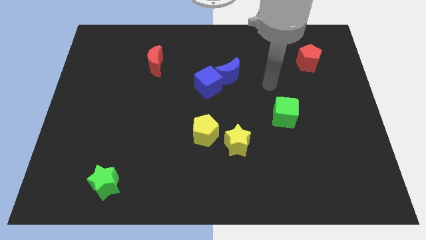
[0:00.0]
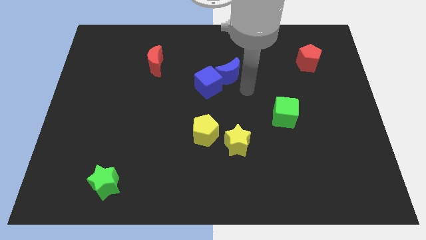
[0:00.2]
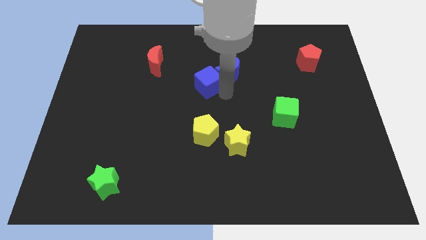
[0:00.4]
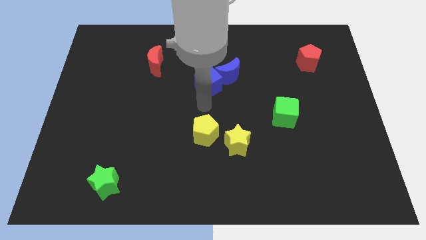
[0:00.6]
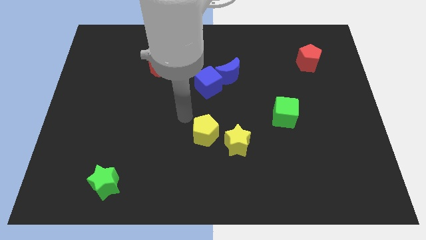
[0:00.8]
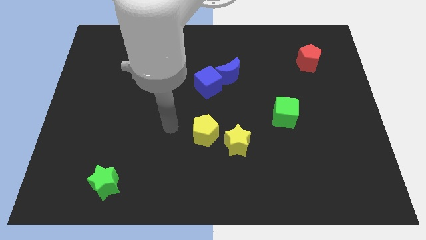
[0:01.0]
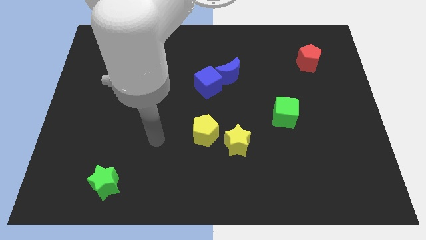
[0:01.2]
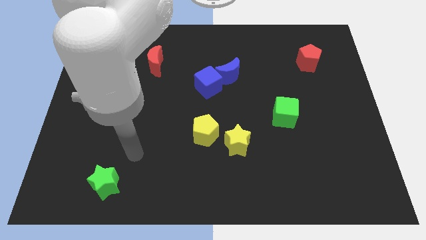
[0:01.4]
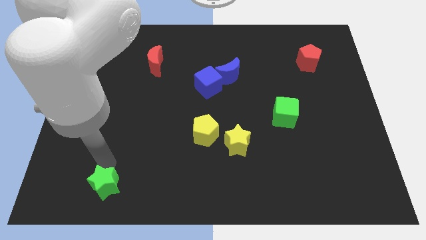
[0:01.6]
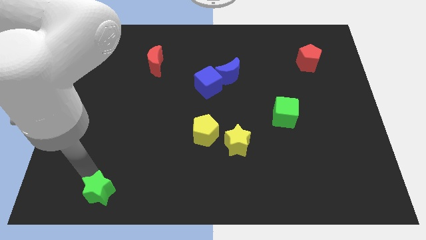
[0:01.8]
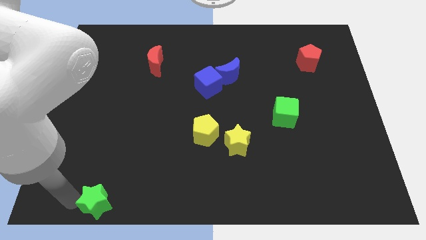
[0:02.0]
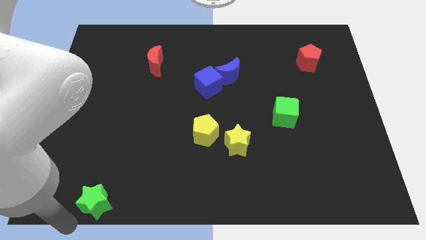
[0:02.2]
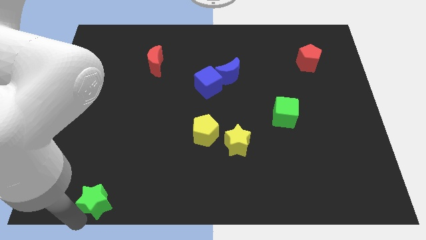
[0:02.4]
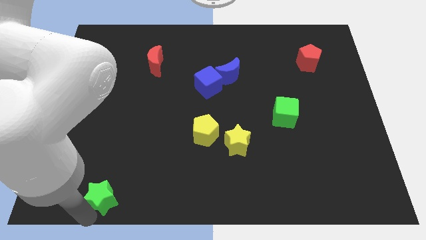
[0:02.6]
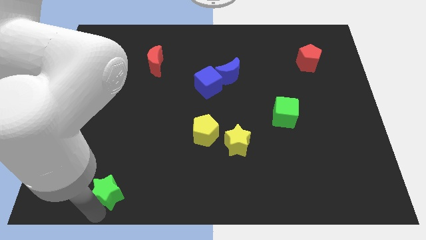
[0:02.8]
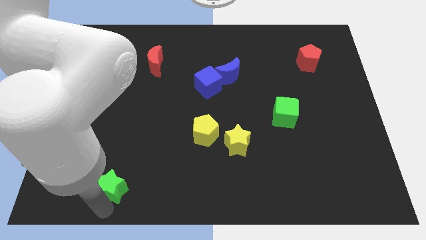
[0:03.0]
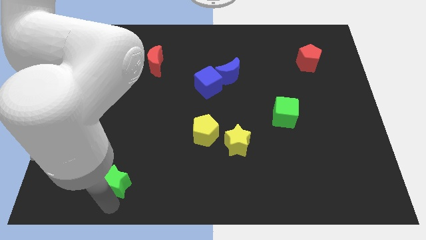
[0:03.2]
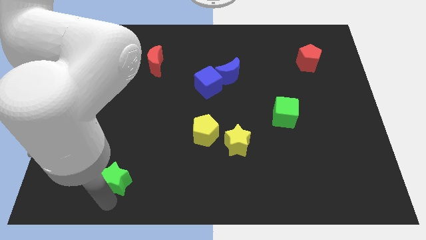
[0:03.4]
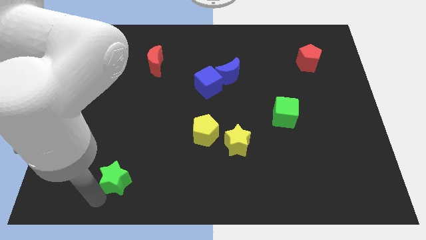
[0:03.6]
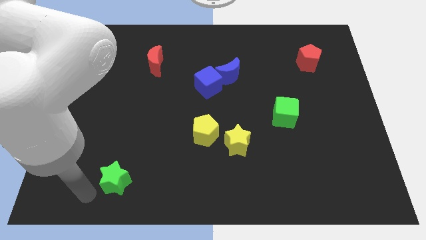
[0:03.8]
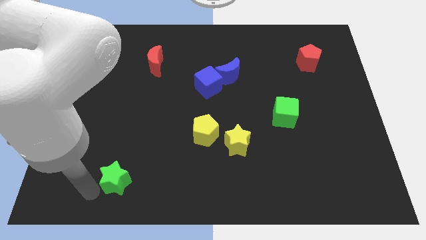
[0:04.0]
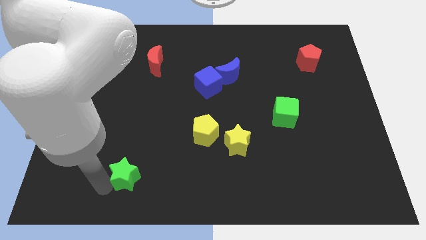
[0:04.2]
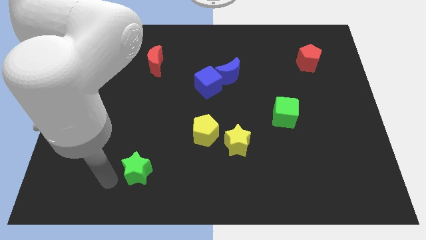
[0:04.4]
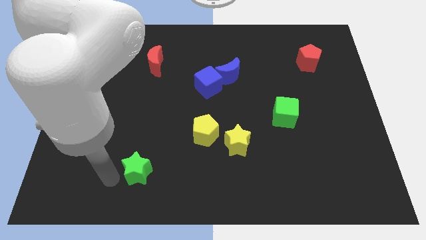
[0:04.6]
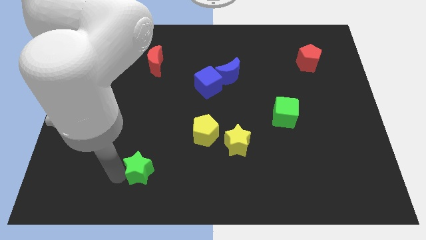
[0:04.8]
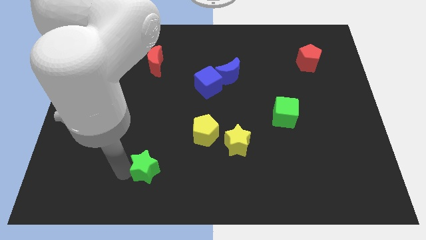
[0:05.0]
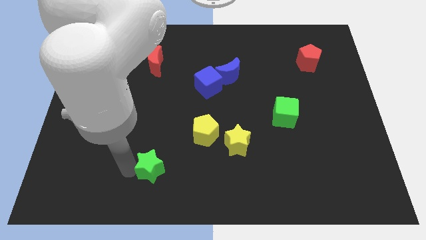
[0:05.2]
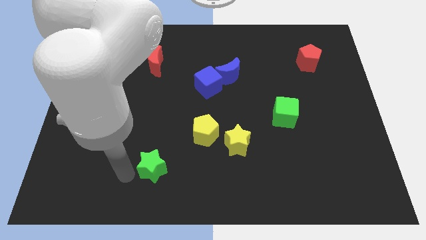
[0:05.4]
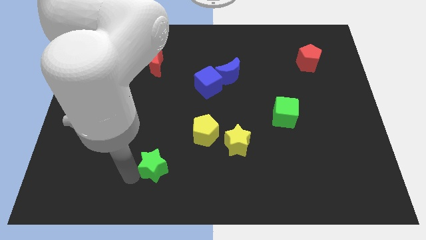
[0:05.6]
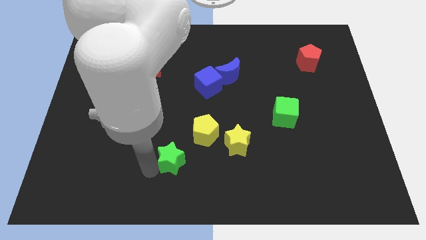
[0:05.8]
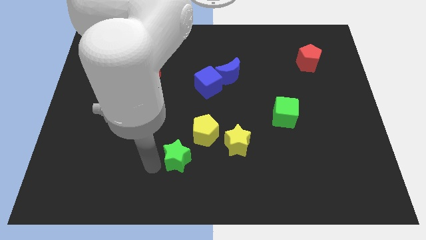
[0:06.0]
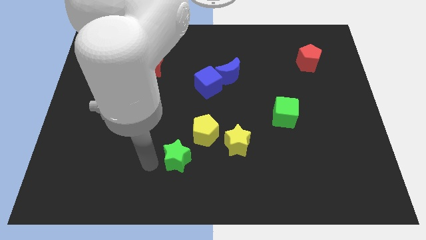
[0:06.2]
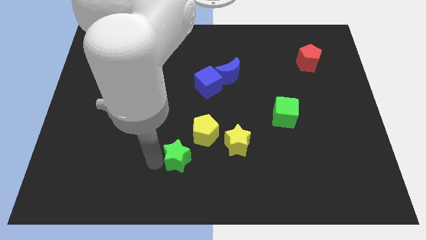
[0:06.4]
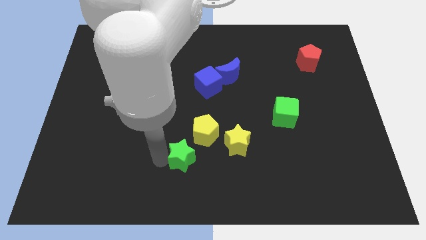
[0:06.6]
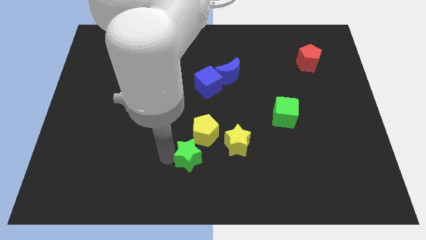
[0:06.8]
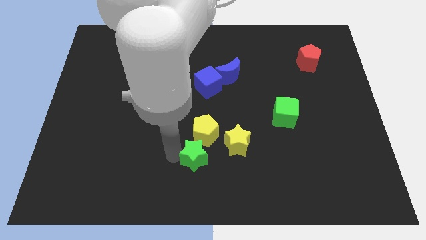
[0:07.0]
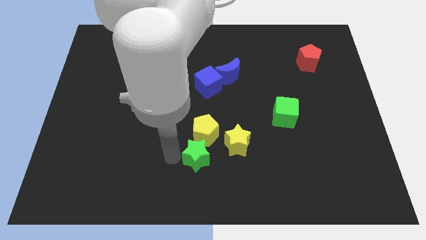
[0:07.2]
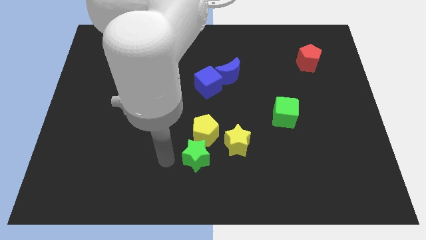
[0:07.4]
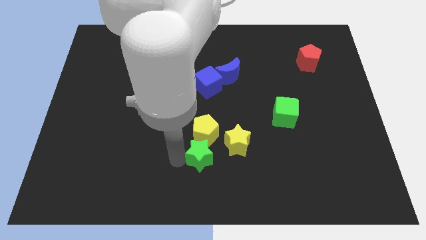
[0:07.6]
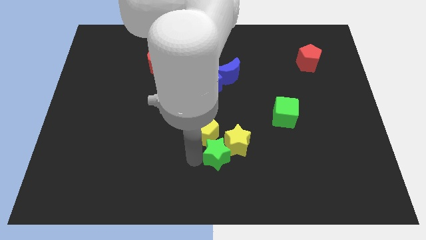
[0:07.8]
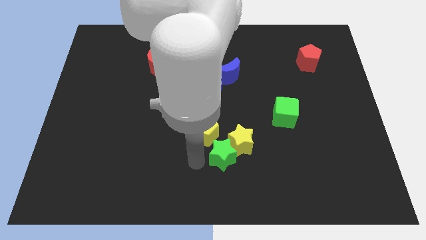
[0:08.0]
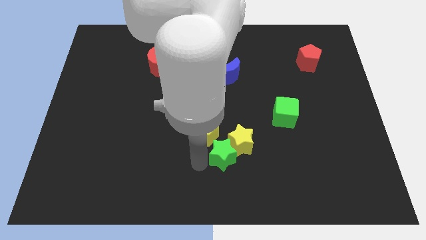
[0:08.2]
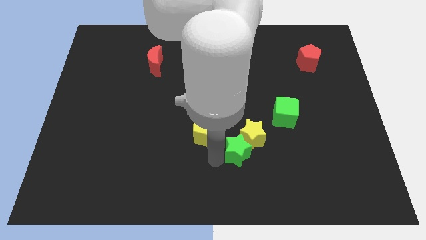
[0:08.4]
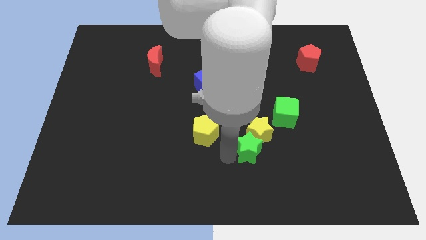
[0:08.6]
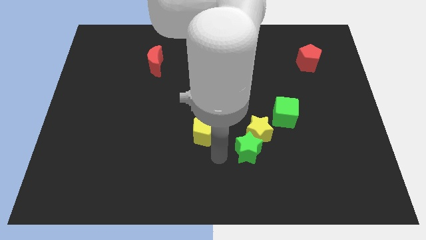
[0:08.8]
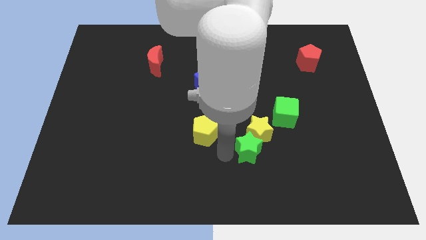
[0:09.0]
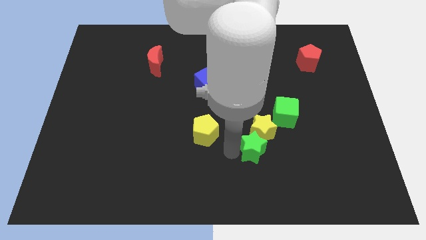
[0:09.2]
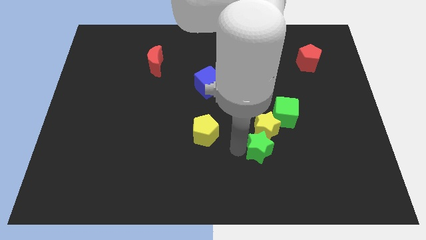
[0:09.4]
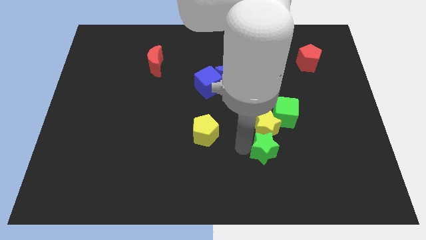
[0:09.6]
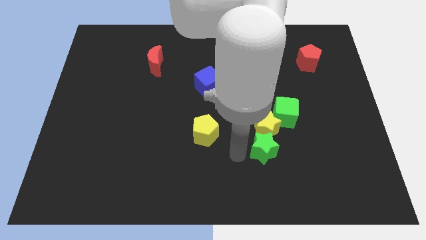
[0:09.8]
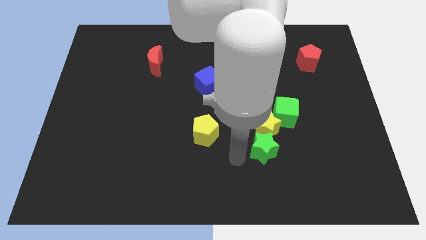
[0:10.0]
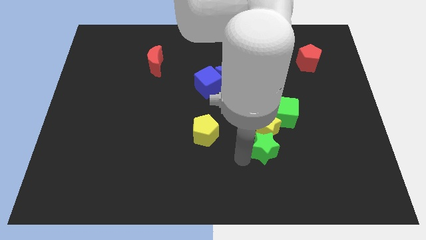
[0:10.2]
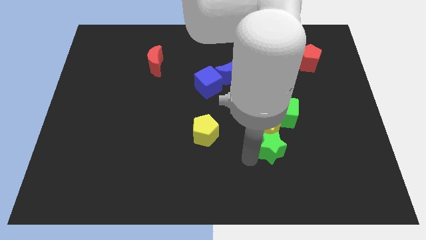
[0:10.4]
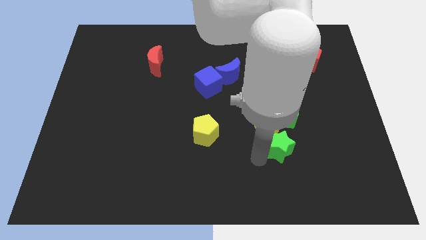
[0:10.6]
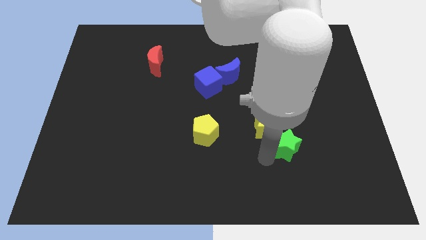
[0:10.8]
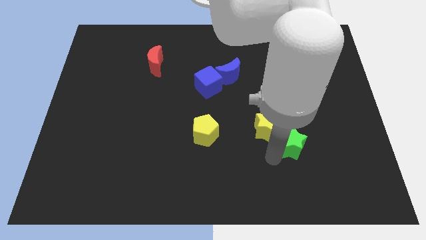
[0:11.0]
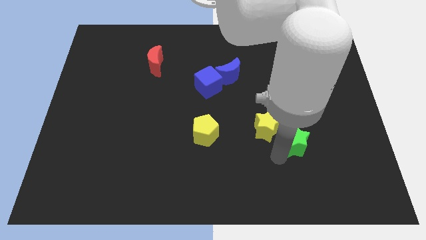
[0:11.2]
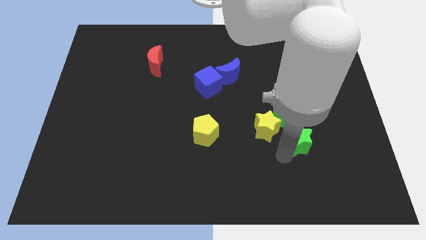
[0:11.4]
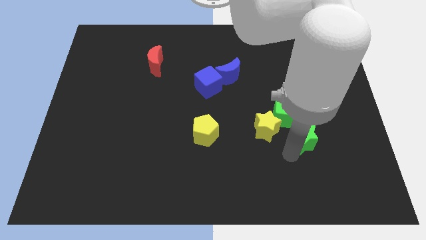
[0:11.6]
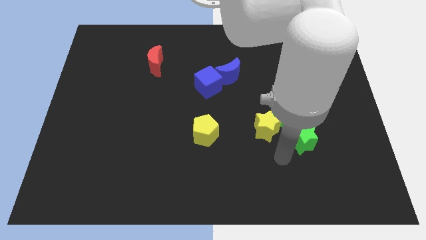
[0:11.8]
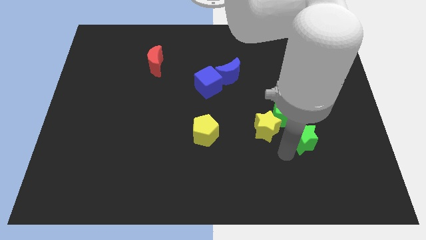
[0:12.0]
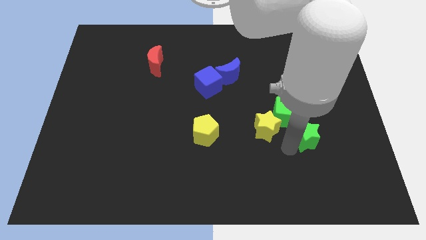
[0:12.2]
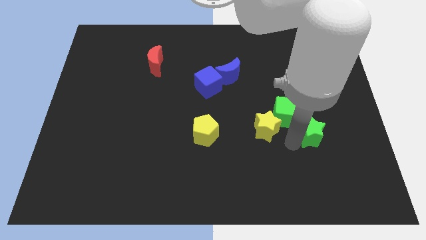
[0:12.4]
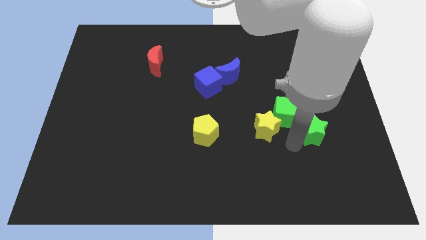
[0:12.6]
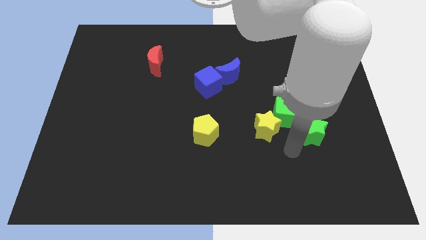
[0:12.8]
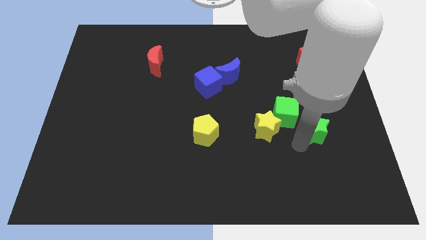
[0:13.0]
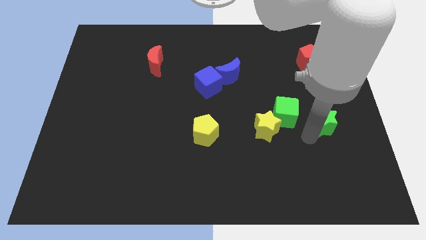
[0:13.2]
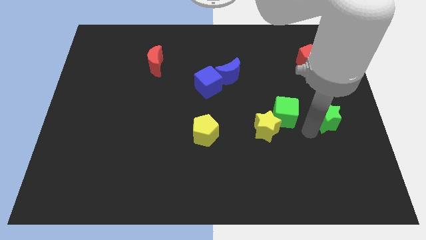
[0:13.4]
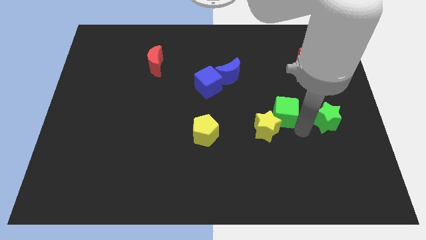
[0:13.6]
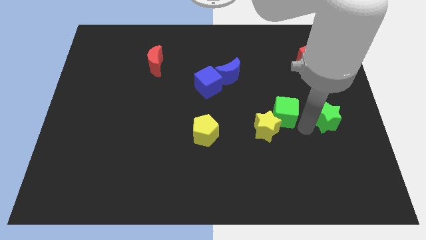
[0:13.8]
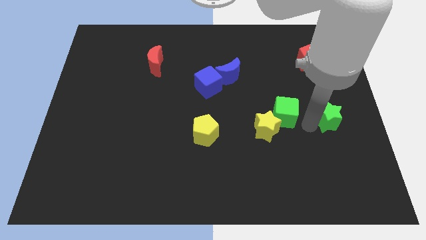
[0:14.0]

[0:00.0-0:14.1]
put the green star to the right side
